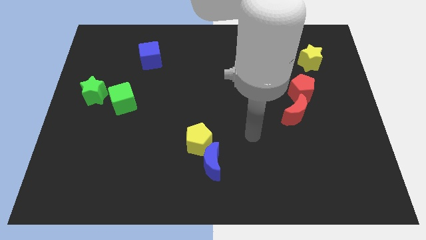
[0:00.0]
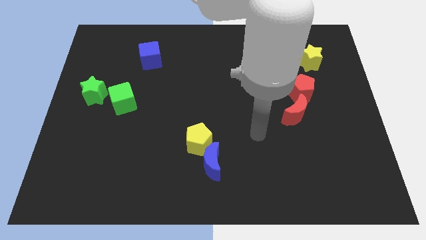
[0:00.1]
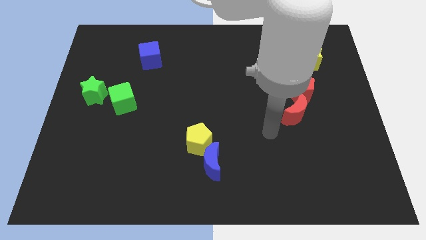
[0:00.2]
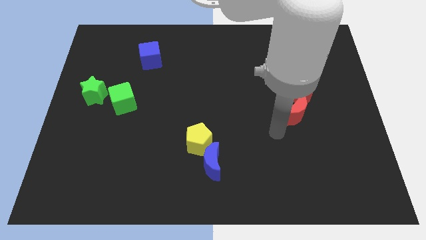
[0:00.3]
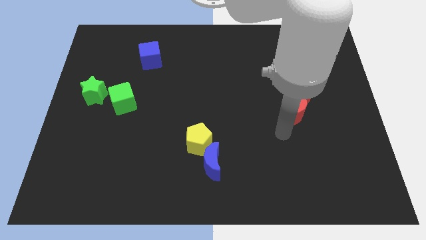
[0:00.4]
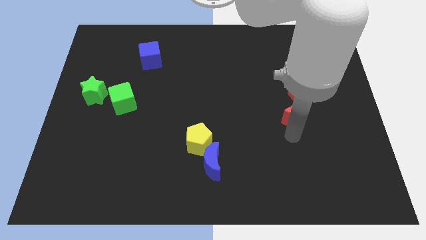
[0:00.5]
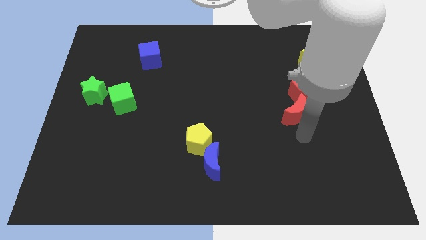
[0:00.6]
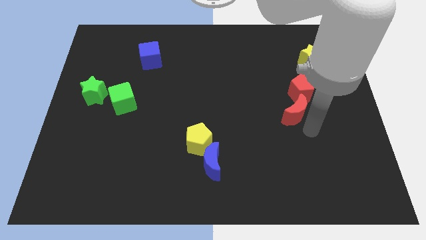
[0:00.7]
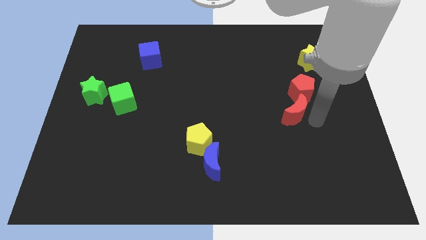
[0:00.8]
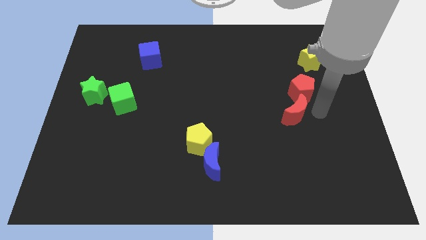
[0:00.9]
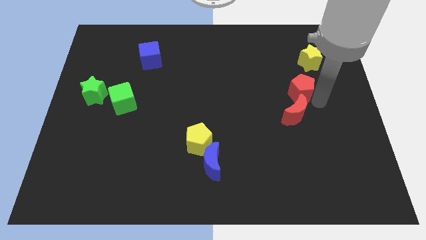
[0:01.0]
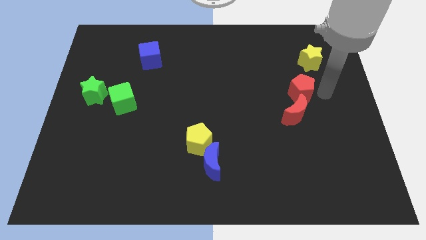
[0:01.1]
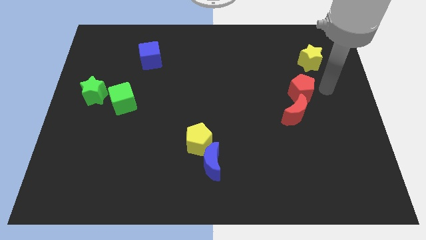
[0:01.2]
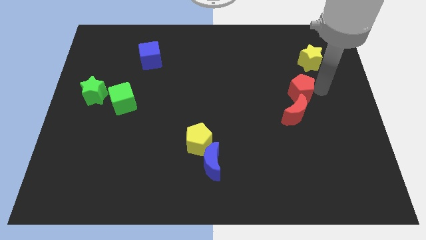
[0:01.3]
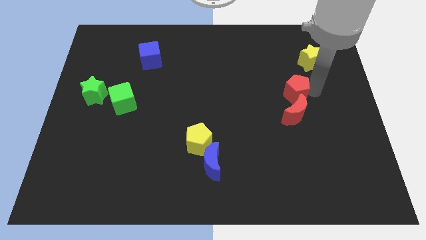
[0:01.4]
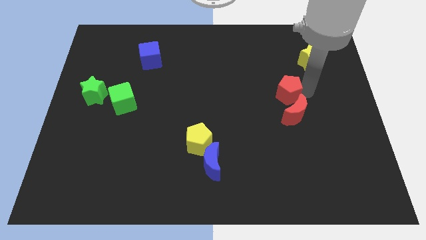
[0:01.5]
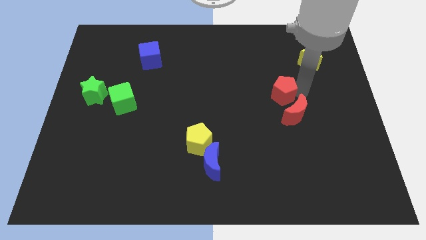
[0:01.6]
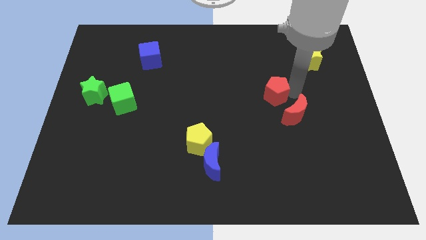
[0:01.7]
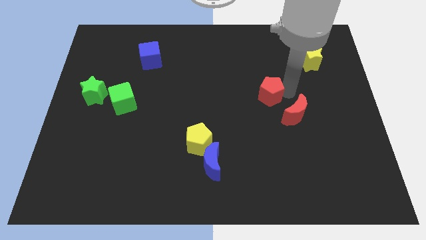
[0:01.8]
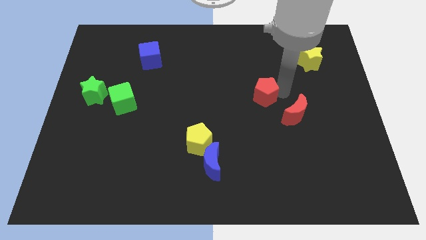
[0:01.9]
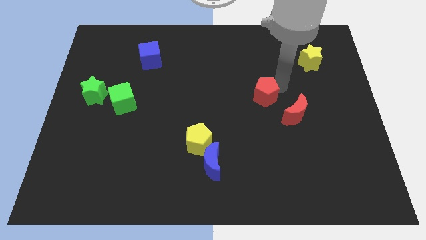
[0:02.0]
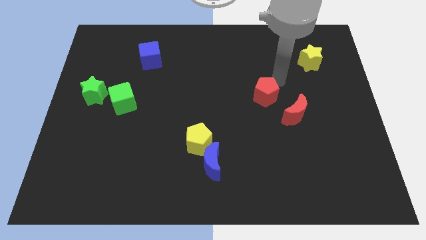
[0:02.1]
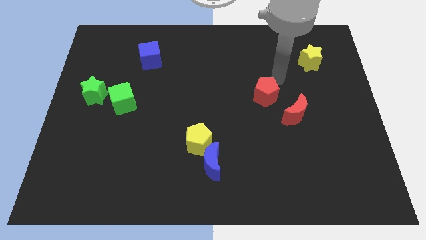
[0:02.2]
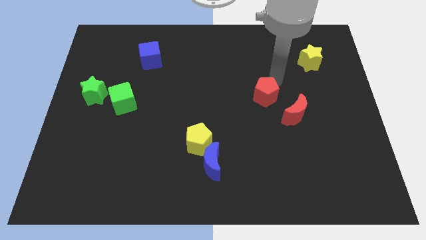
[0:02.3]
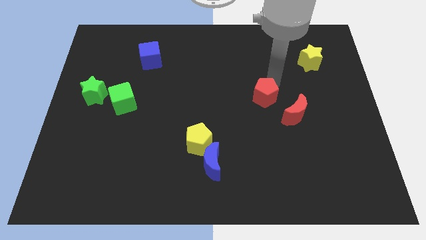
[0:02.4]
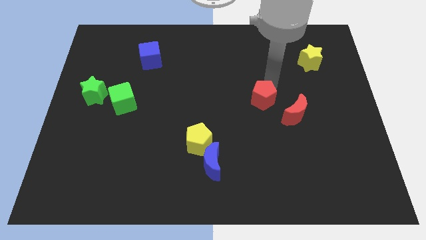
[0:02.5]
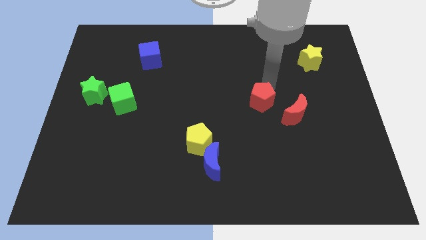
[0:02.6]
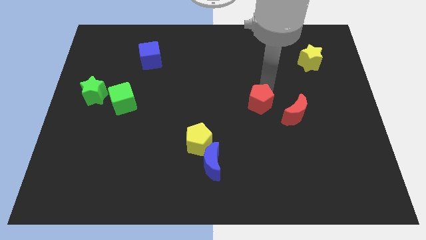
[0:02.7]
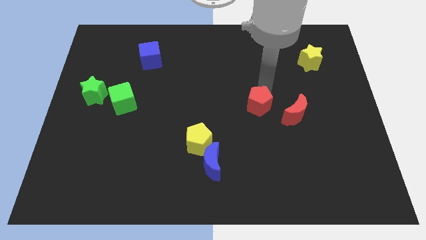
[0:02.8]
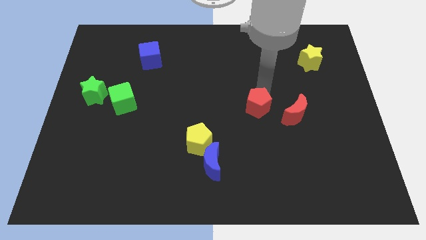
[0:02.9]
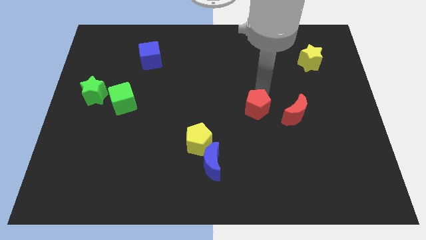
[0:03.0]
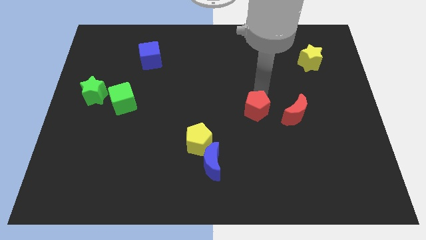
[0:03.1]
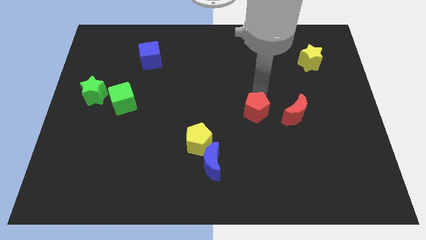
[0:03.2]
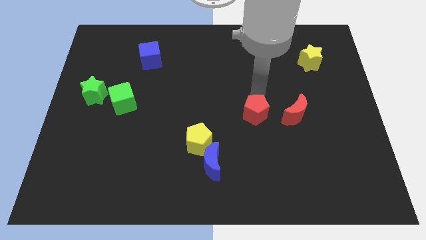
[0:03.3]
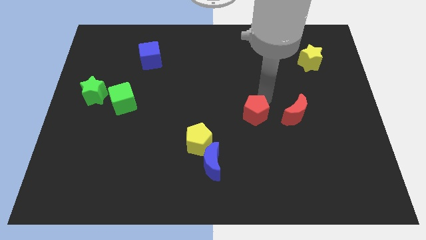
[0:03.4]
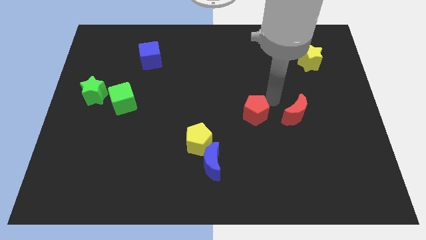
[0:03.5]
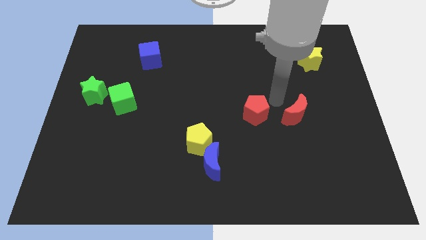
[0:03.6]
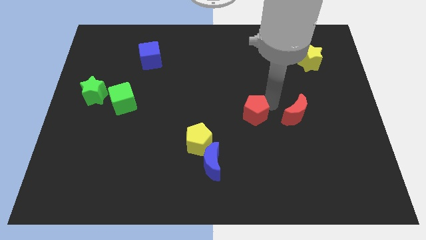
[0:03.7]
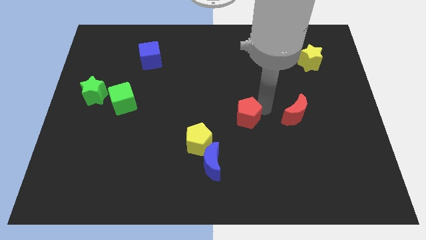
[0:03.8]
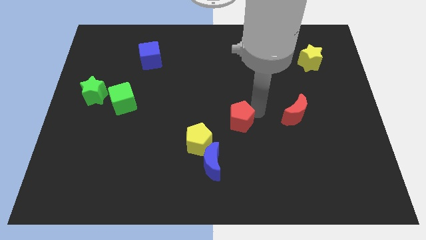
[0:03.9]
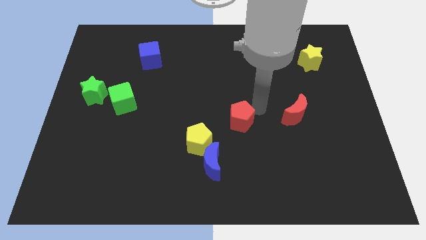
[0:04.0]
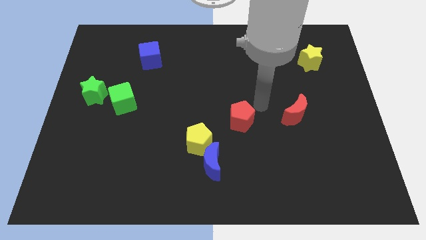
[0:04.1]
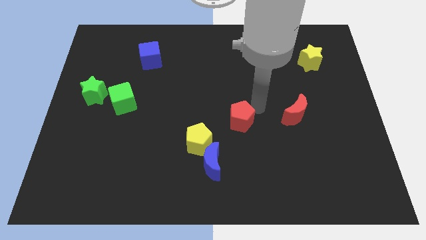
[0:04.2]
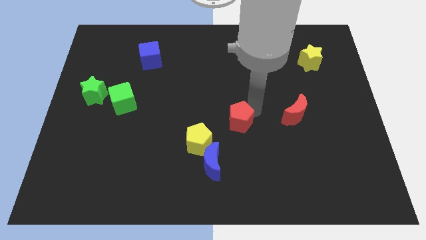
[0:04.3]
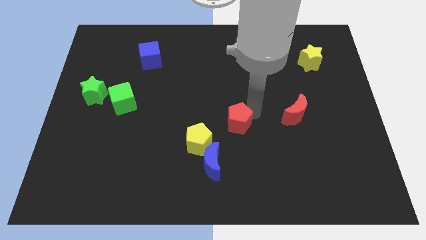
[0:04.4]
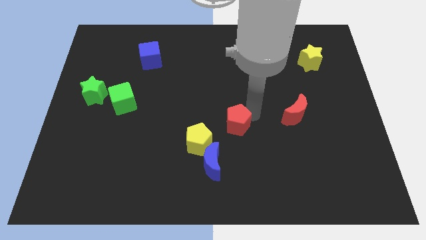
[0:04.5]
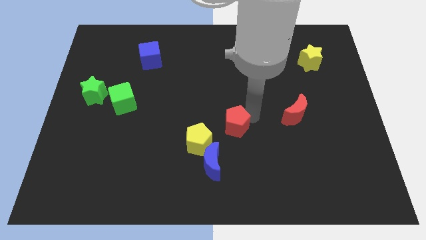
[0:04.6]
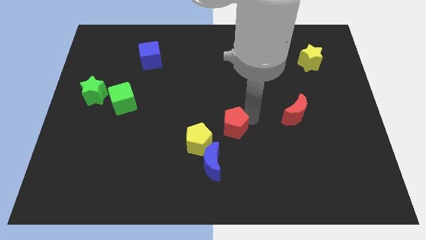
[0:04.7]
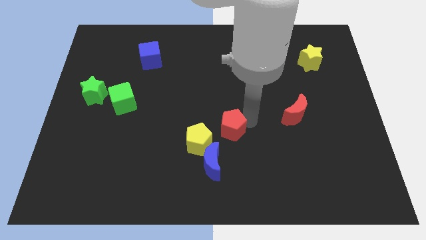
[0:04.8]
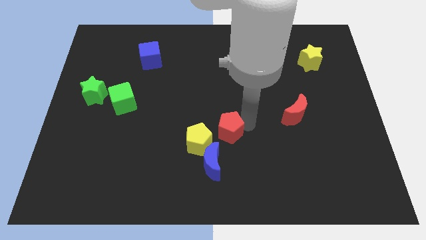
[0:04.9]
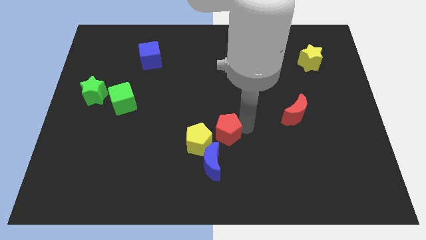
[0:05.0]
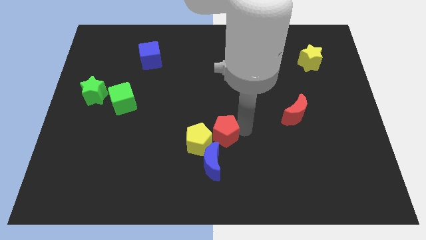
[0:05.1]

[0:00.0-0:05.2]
push the red pentagon to the yellow pentagon

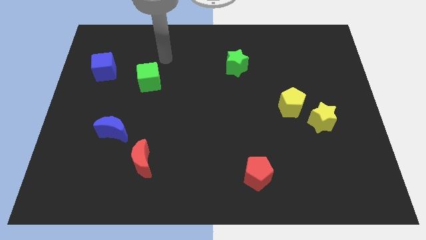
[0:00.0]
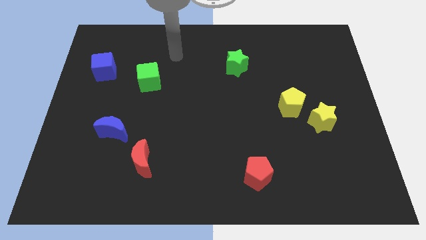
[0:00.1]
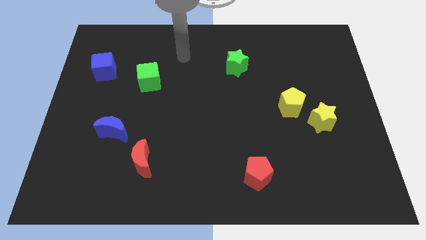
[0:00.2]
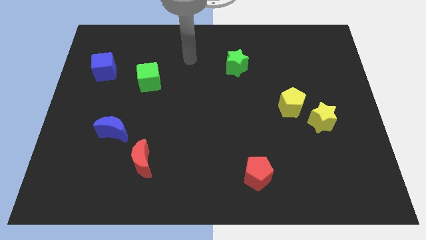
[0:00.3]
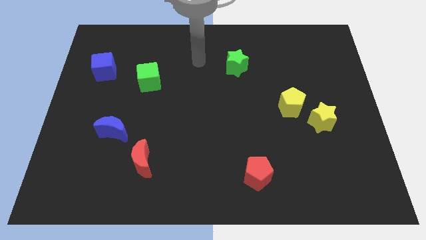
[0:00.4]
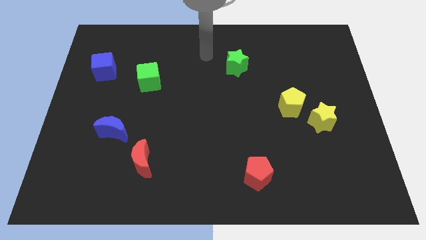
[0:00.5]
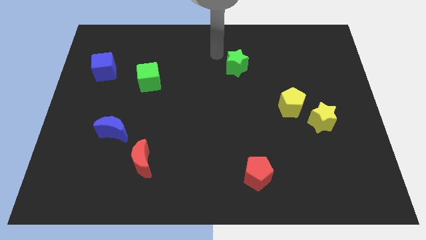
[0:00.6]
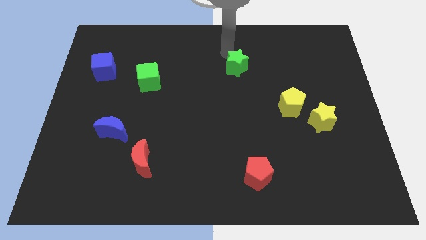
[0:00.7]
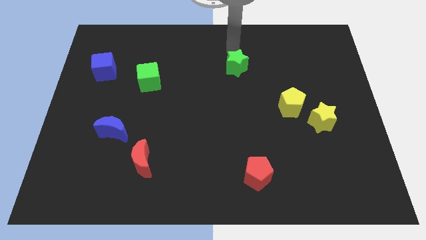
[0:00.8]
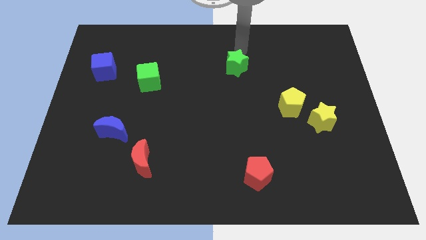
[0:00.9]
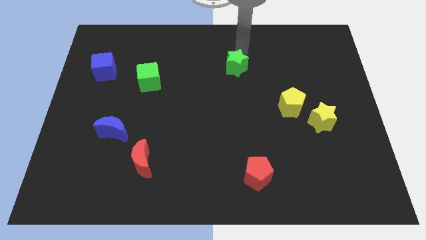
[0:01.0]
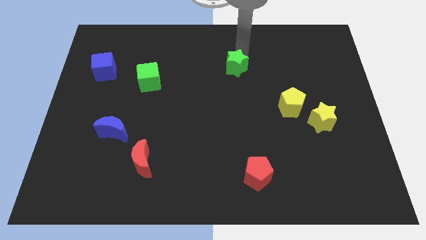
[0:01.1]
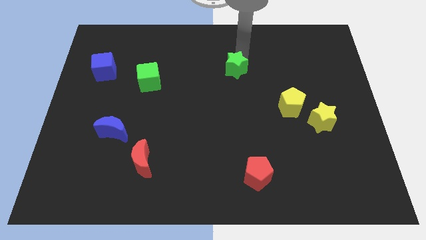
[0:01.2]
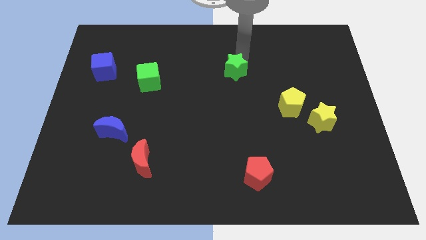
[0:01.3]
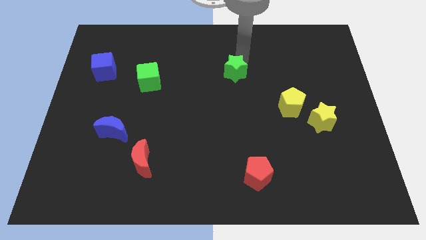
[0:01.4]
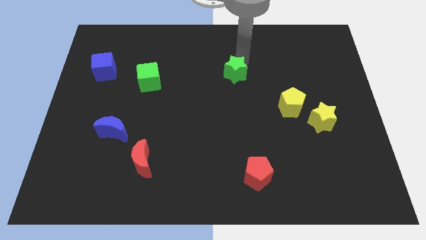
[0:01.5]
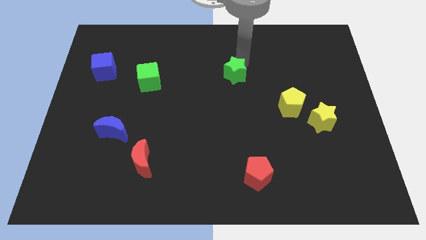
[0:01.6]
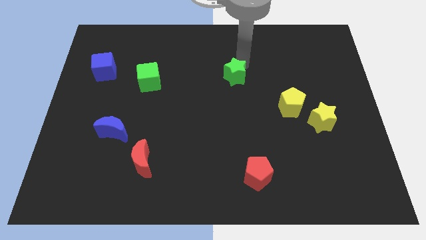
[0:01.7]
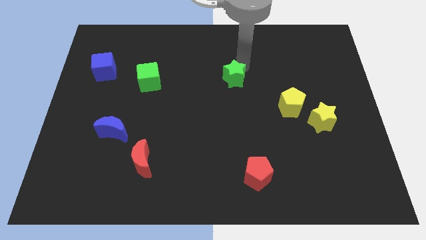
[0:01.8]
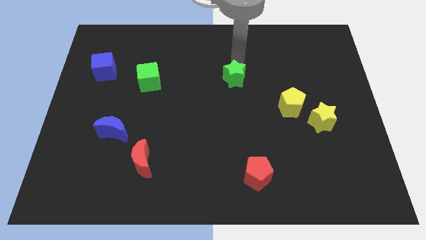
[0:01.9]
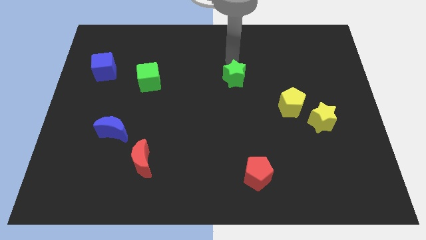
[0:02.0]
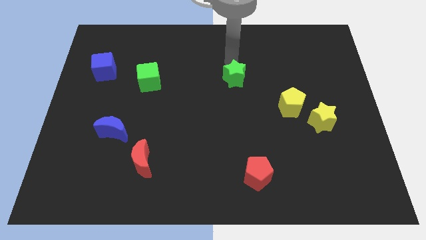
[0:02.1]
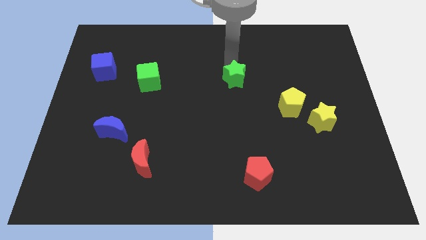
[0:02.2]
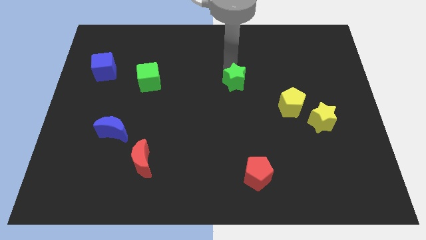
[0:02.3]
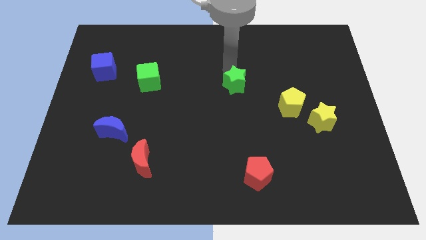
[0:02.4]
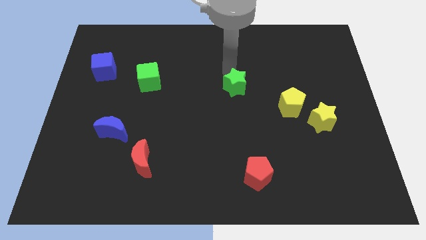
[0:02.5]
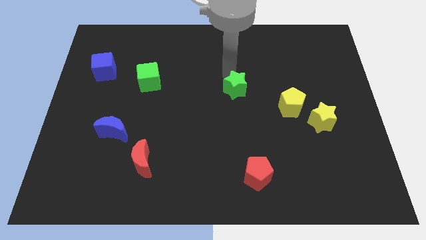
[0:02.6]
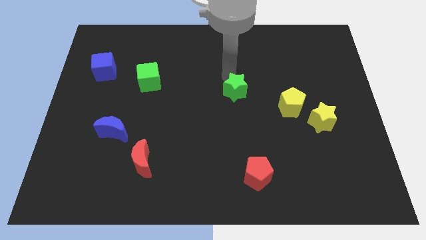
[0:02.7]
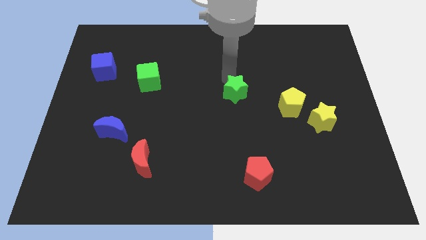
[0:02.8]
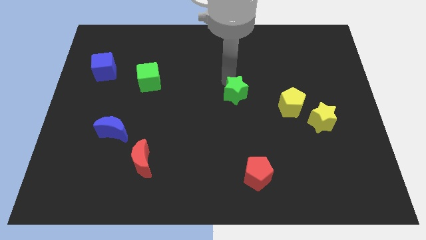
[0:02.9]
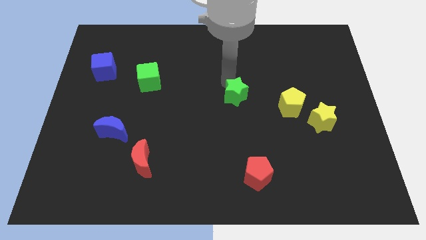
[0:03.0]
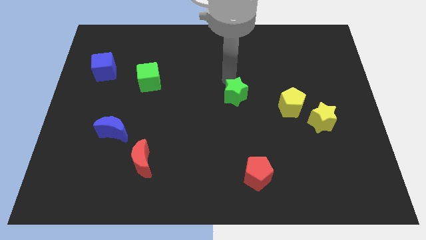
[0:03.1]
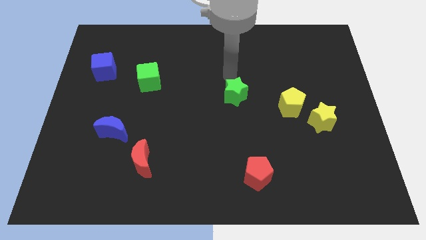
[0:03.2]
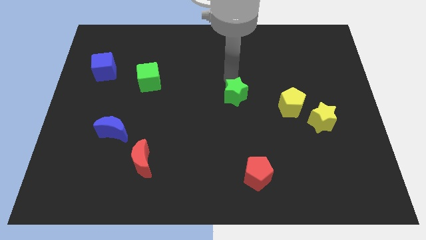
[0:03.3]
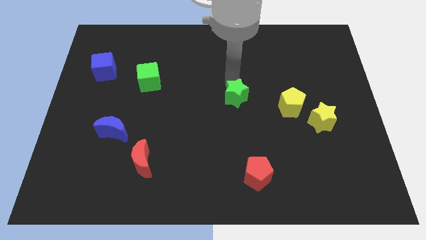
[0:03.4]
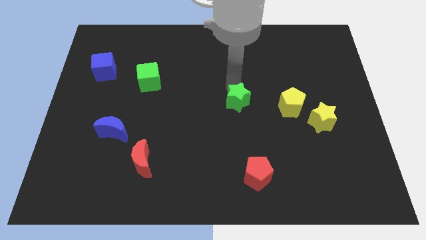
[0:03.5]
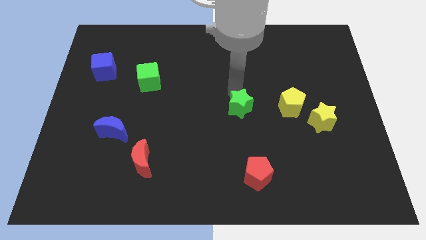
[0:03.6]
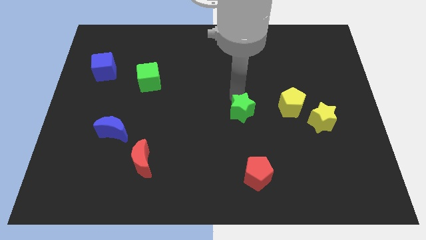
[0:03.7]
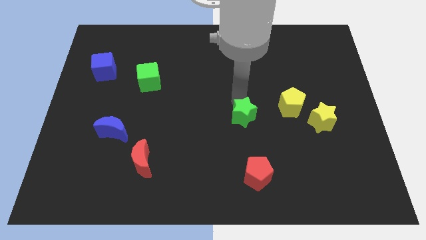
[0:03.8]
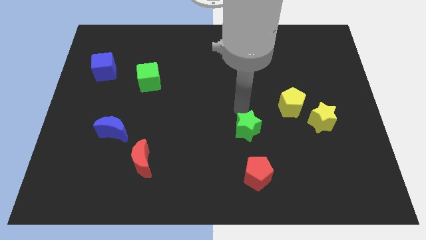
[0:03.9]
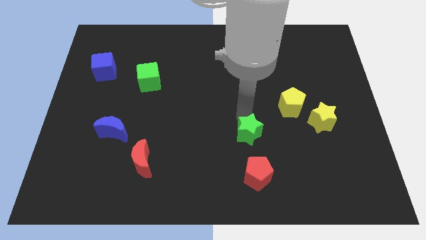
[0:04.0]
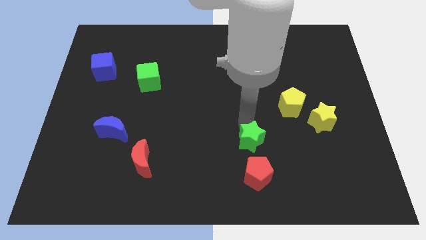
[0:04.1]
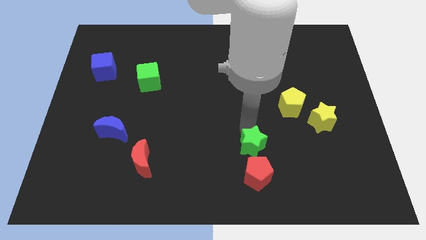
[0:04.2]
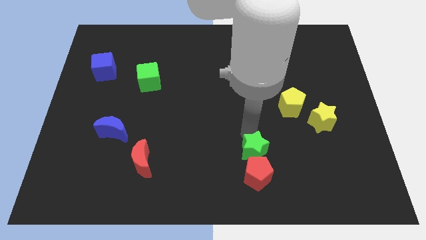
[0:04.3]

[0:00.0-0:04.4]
slide the green star next to the red pentagon
